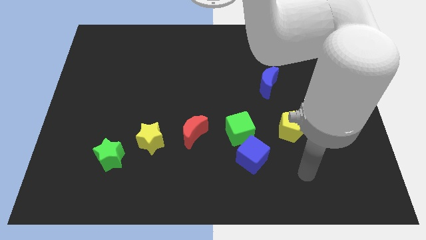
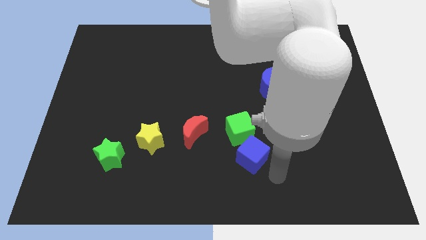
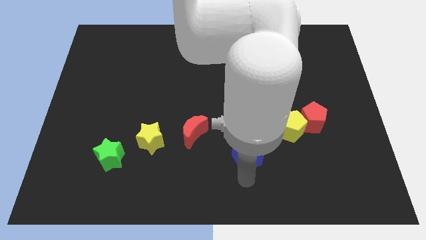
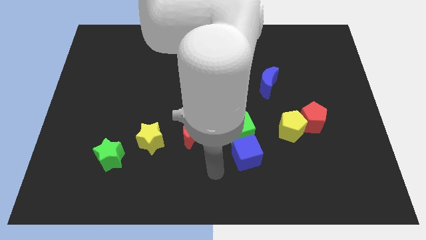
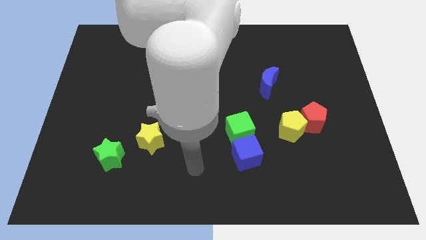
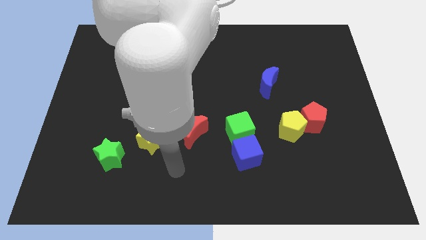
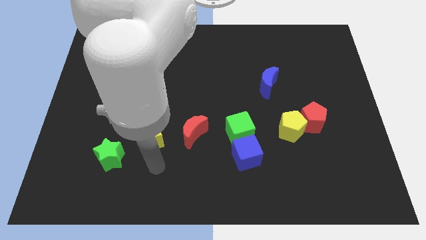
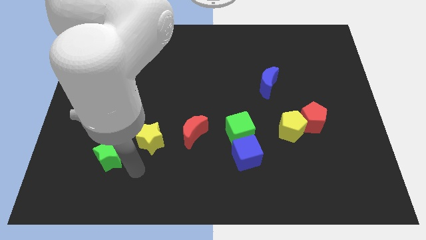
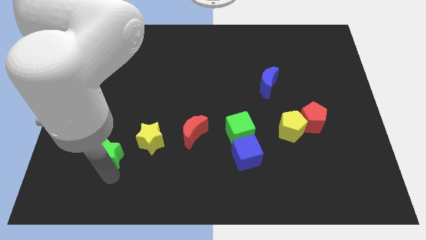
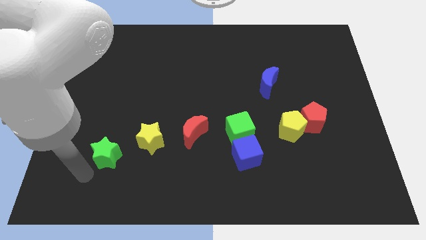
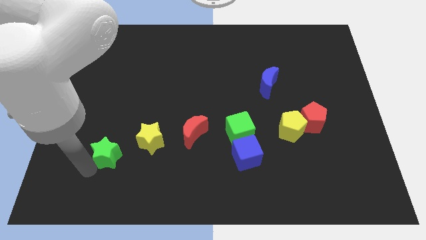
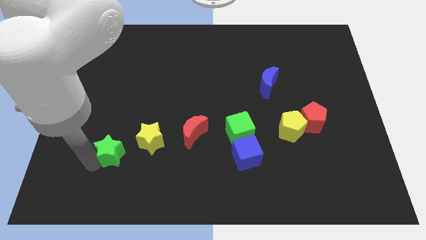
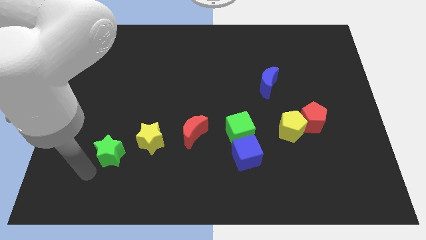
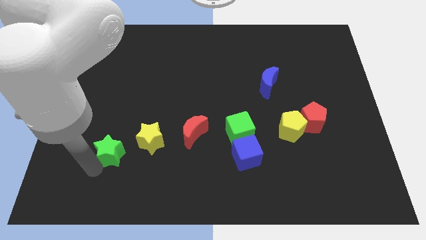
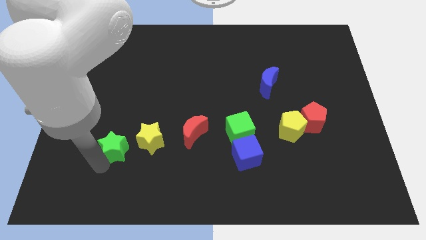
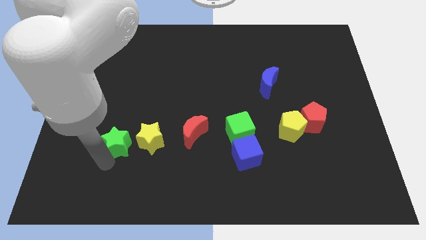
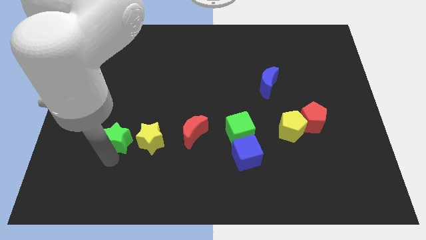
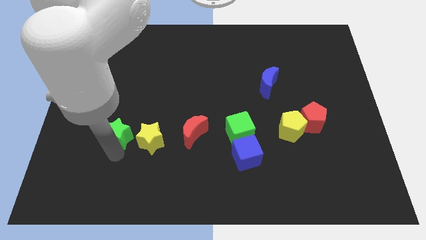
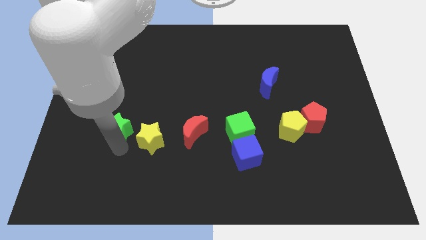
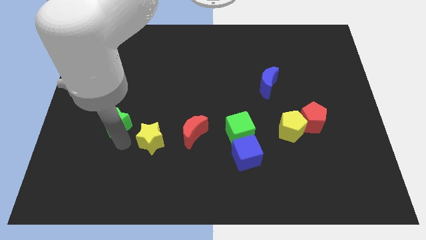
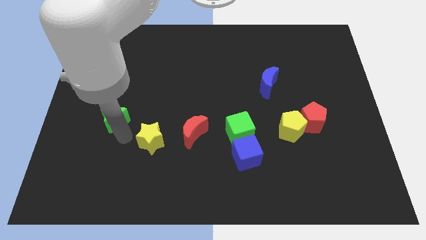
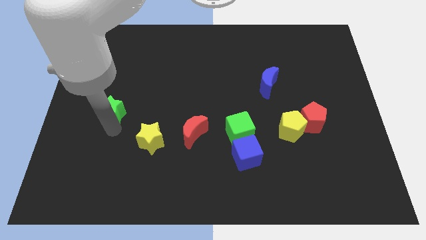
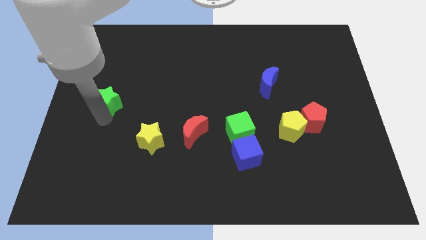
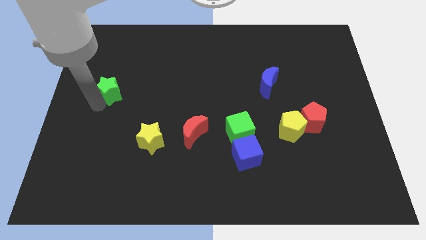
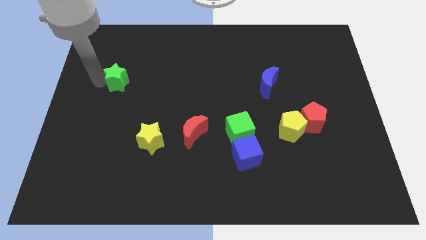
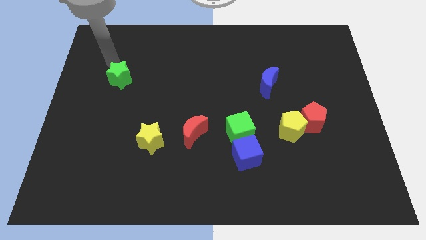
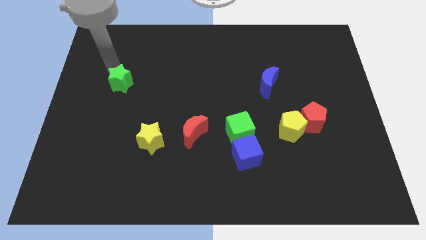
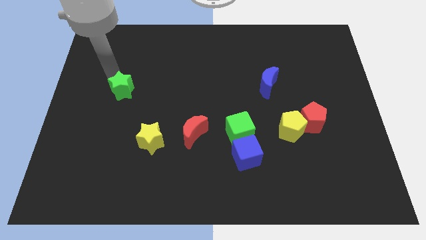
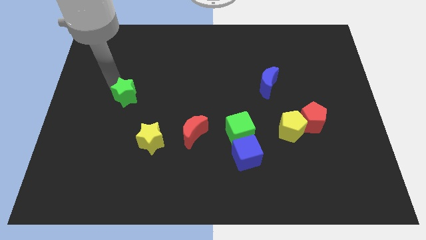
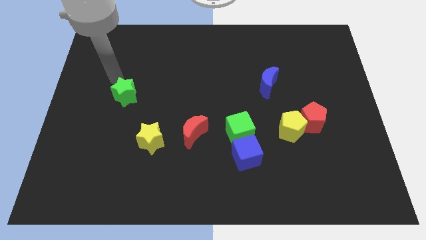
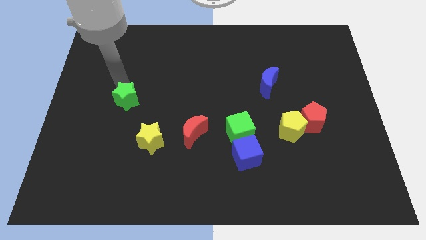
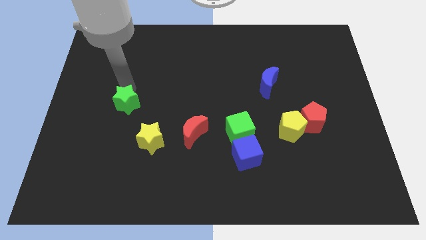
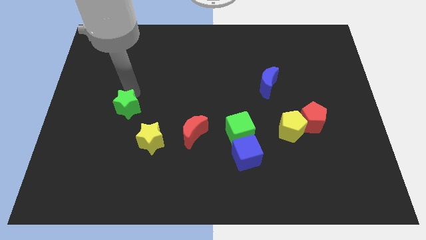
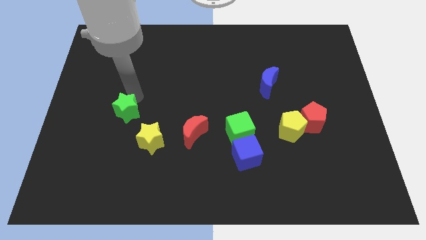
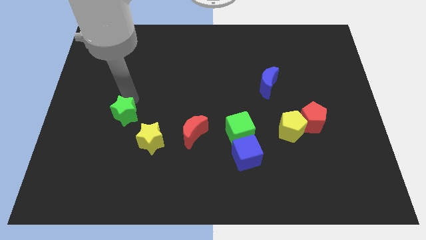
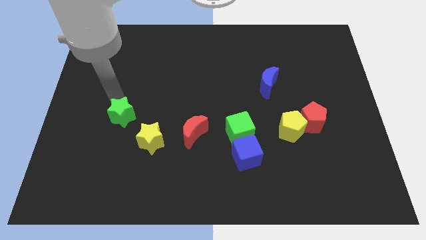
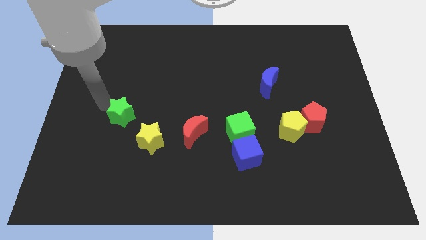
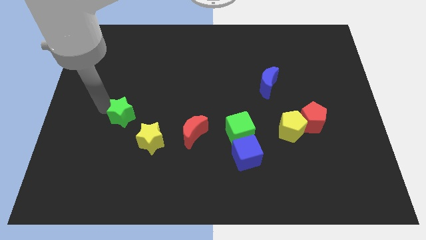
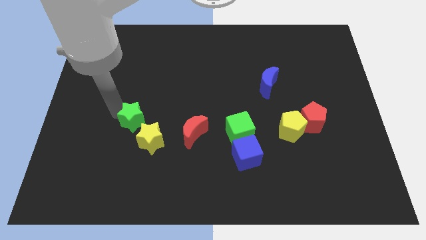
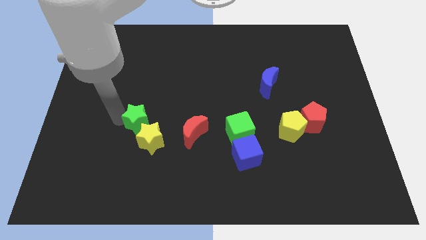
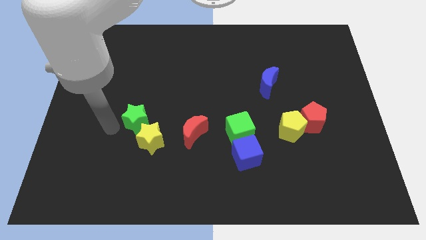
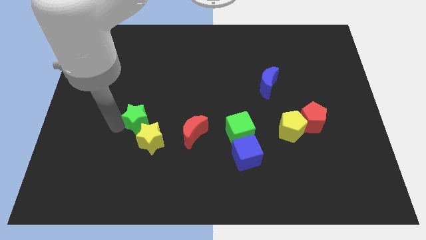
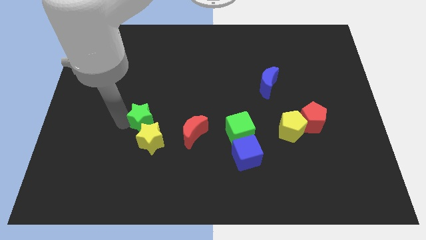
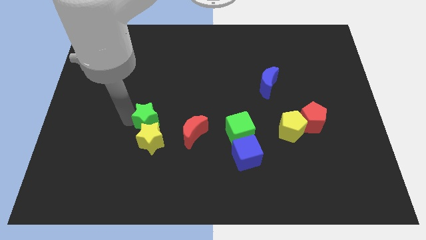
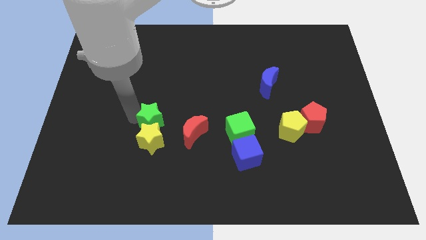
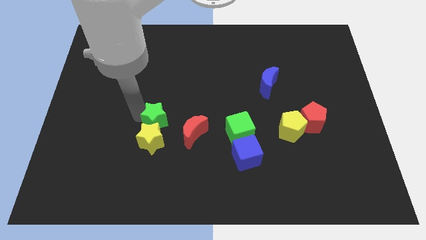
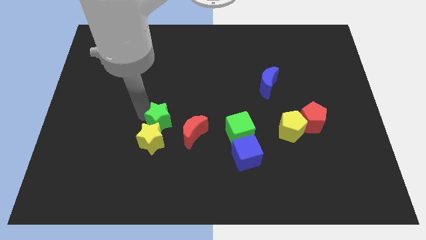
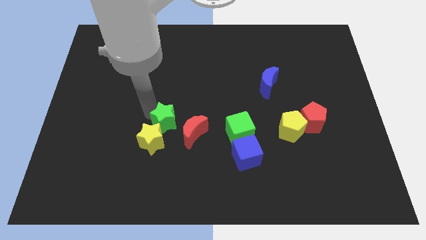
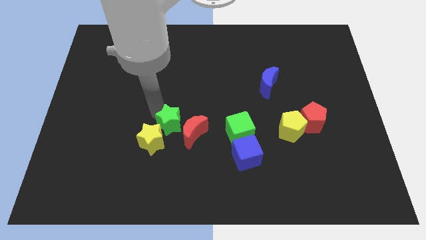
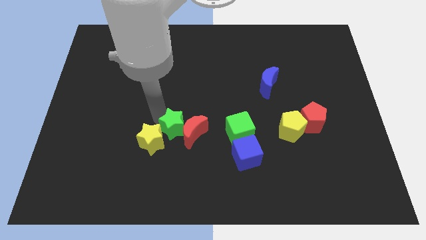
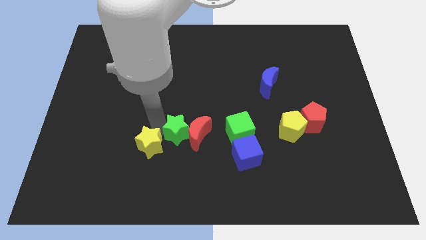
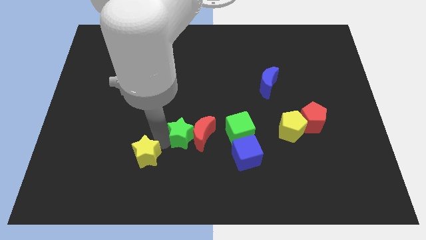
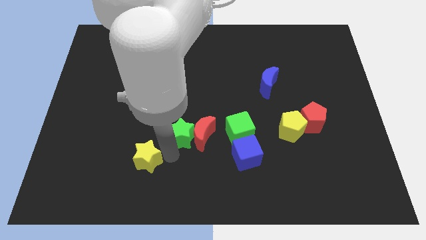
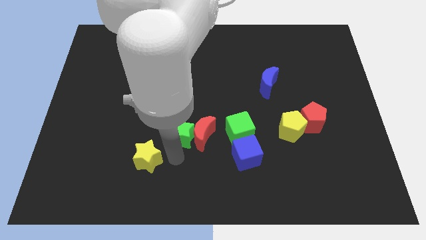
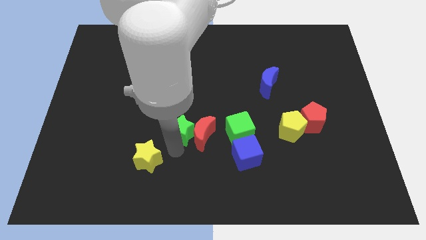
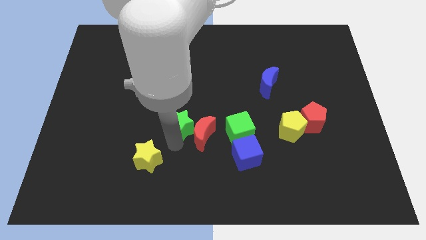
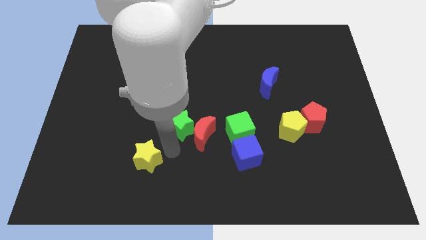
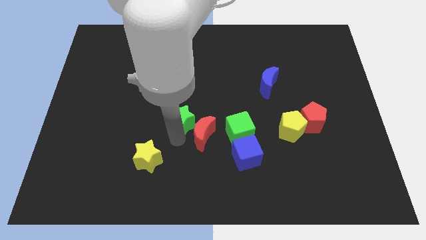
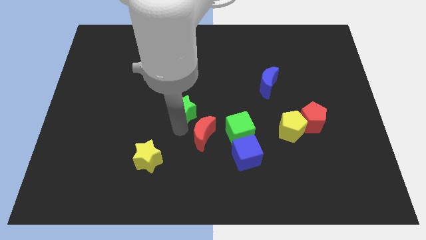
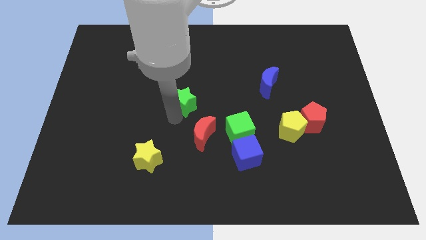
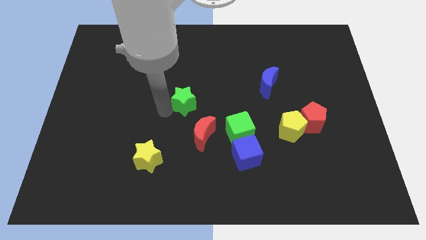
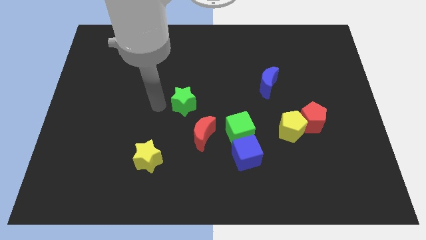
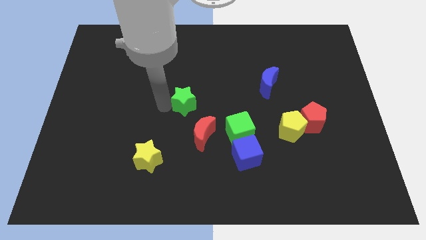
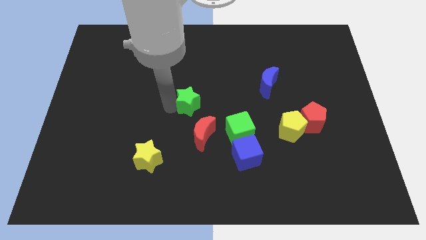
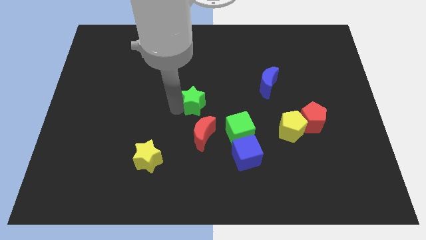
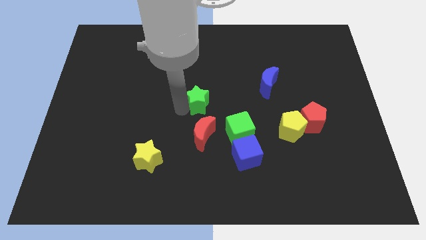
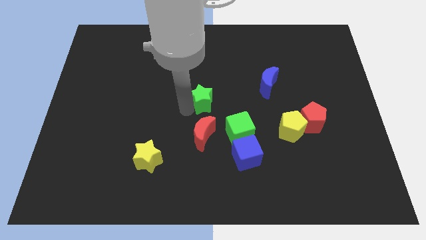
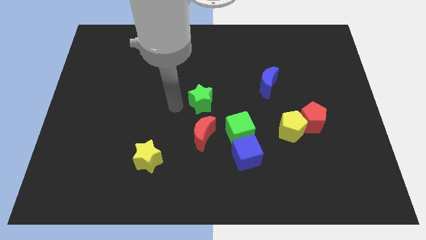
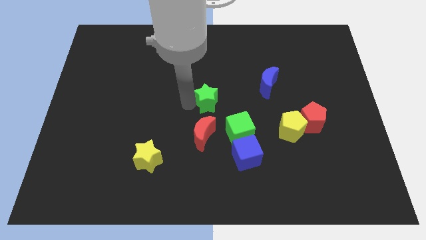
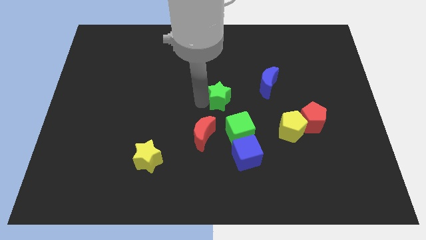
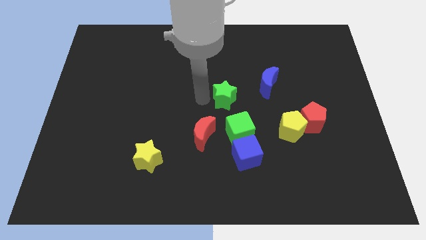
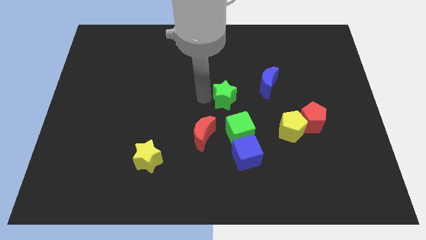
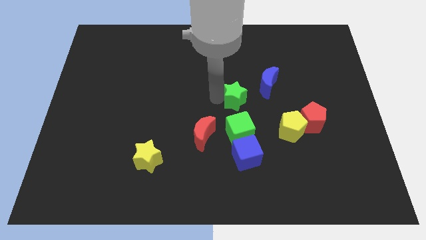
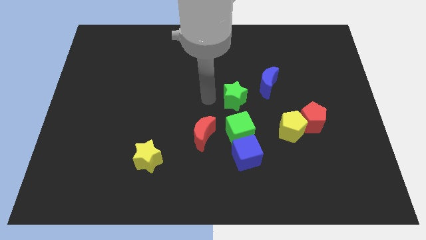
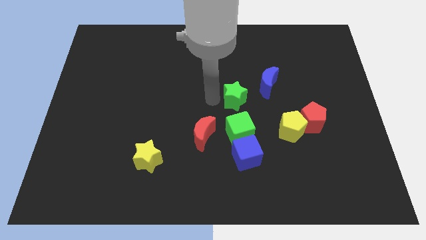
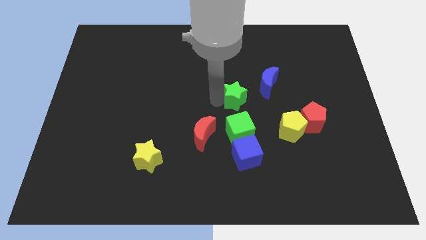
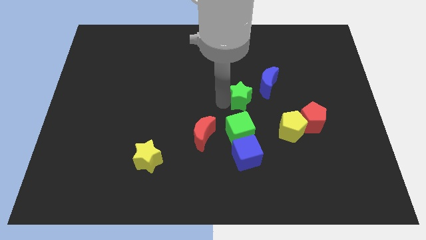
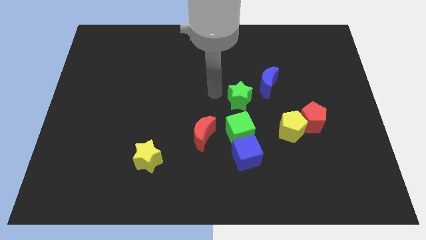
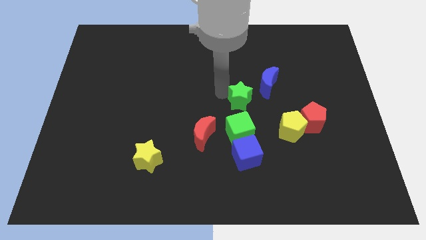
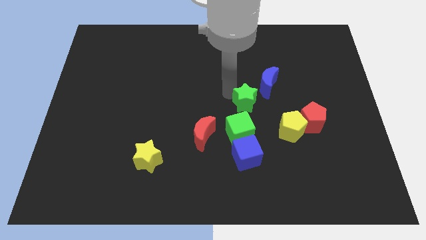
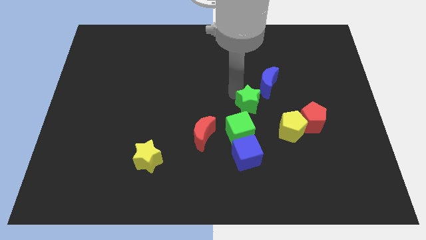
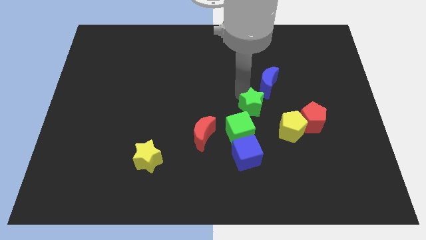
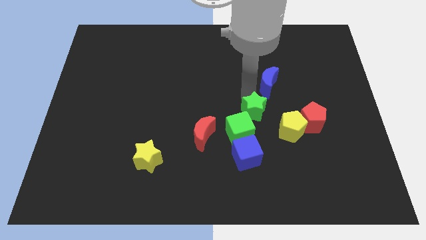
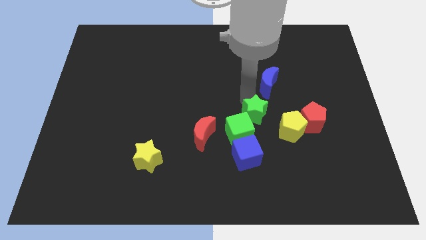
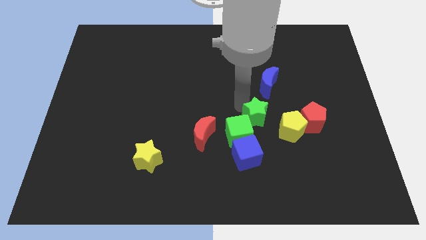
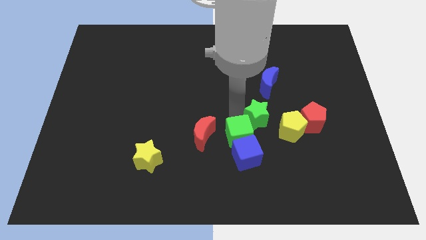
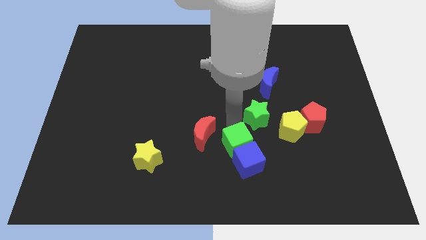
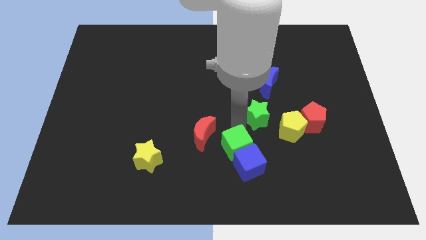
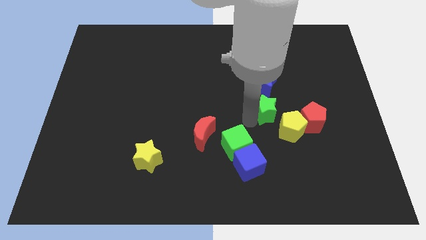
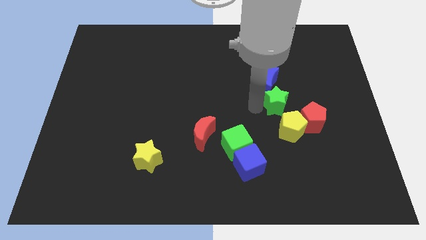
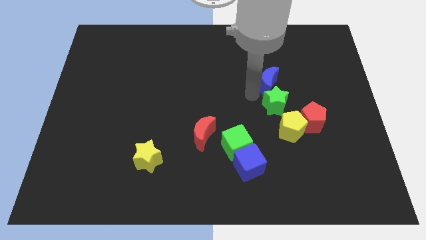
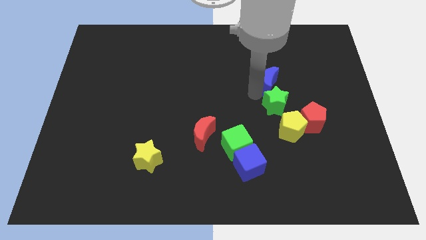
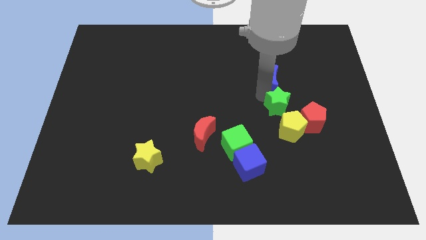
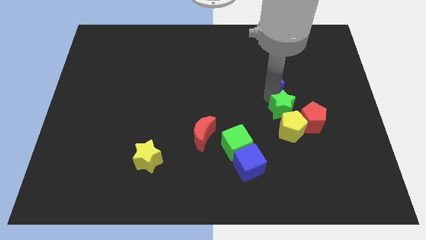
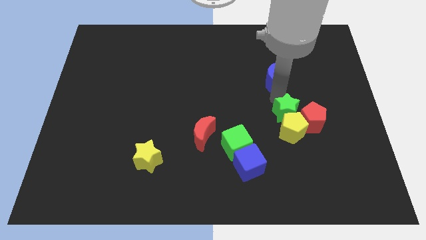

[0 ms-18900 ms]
slide the green star to the red pentagon
